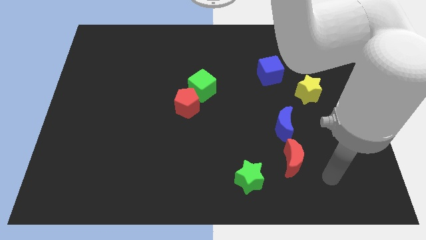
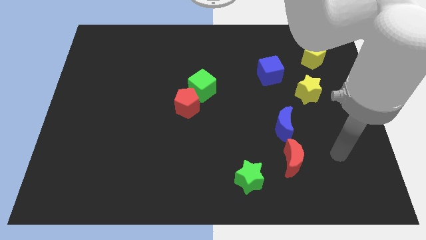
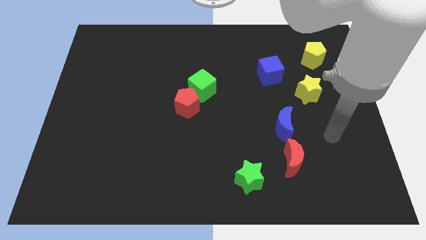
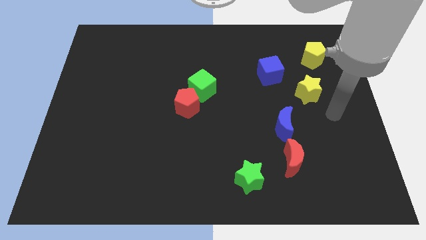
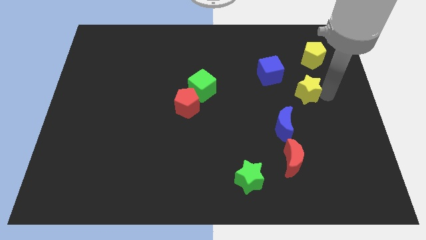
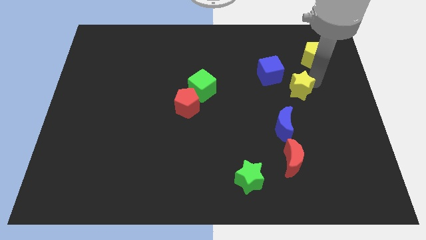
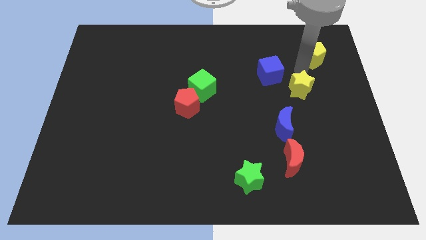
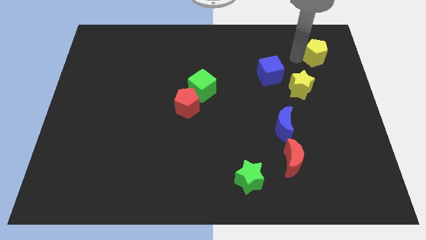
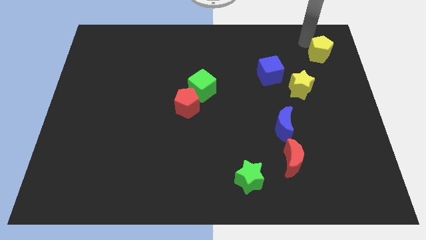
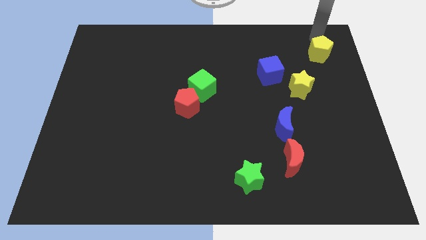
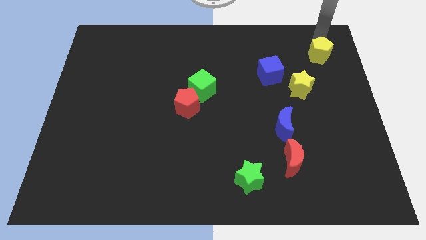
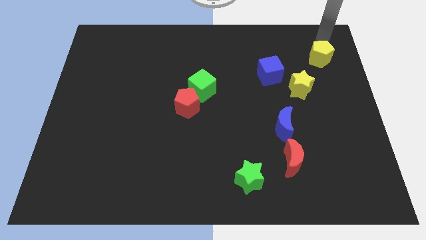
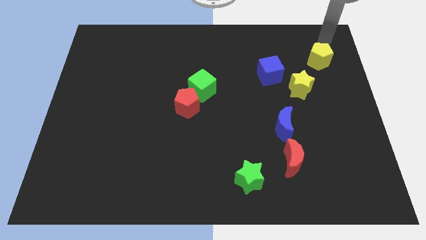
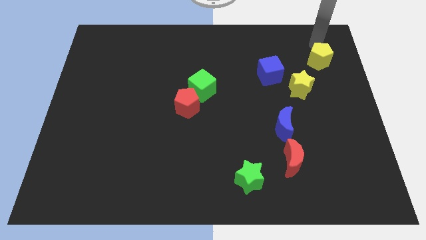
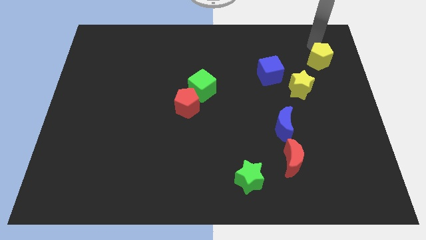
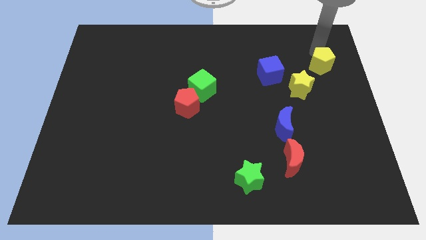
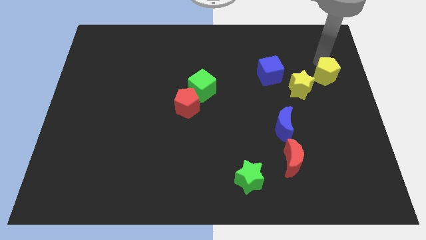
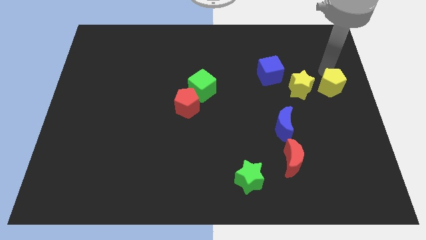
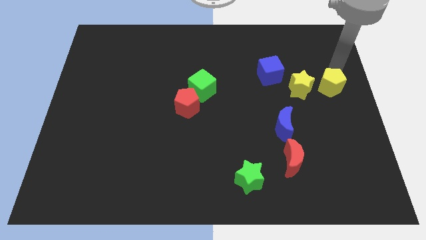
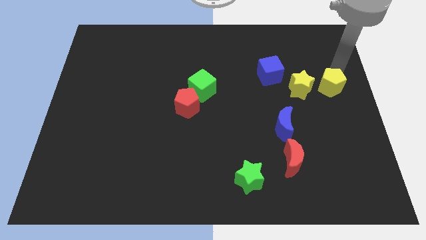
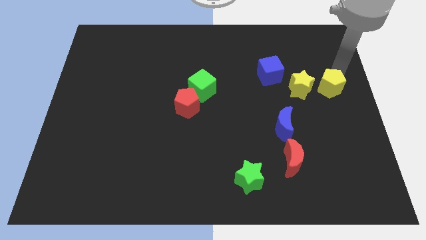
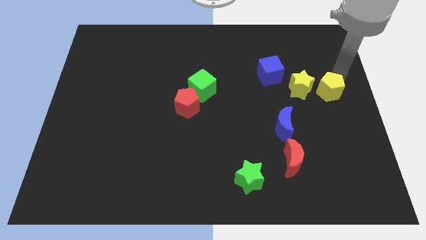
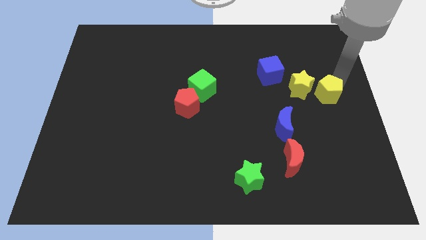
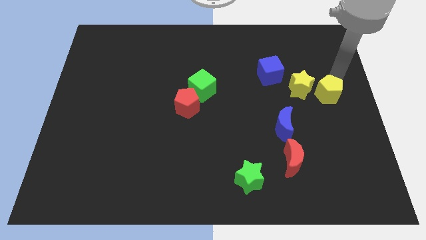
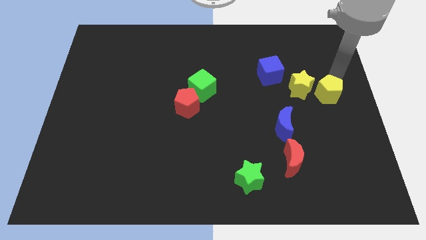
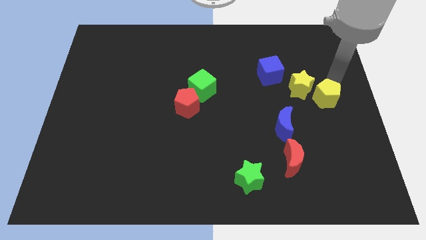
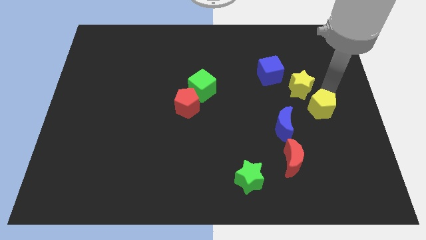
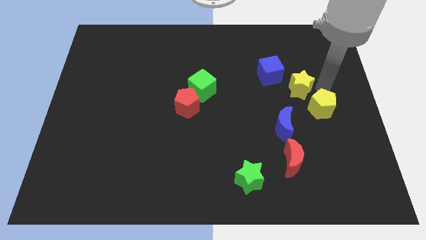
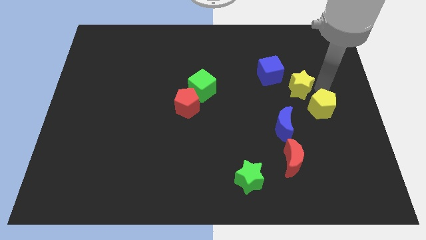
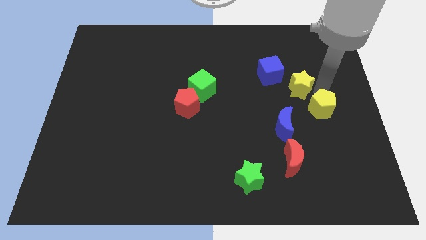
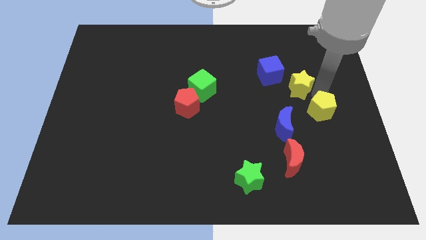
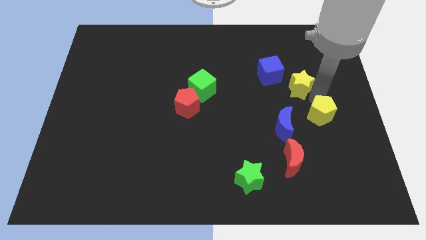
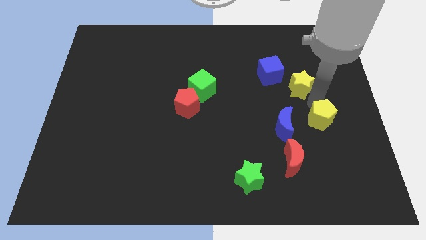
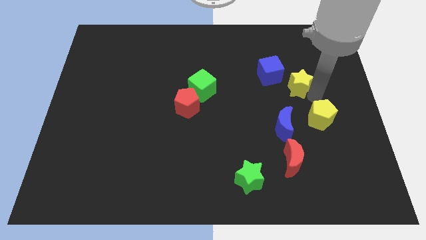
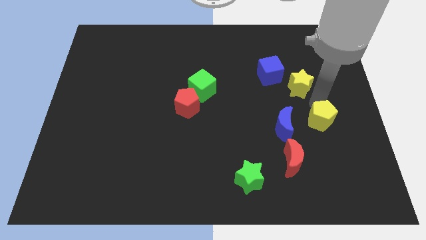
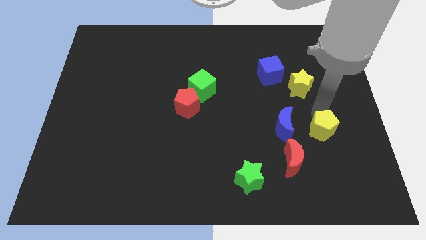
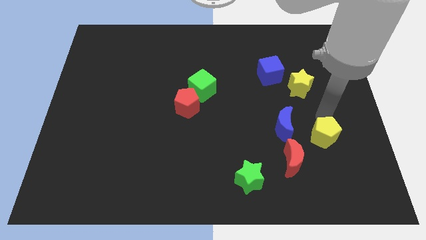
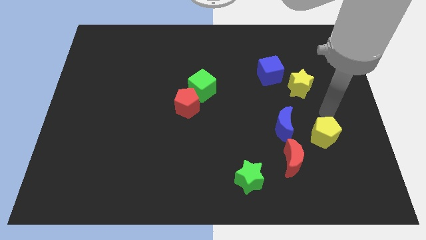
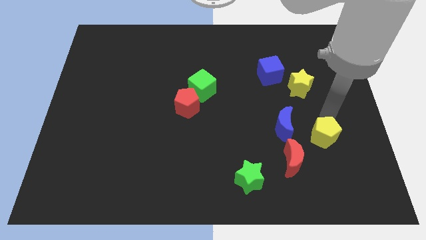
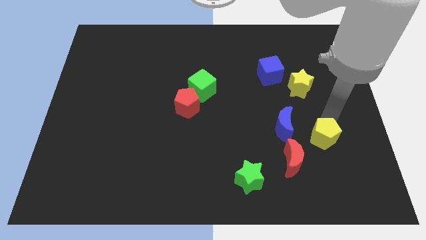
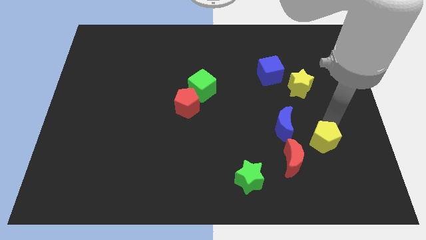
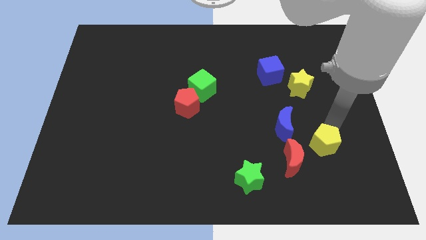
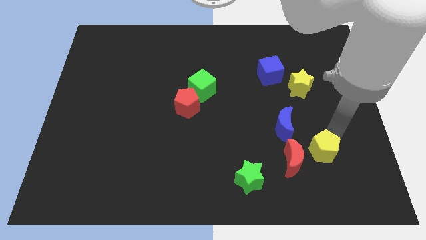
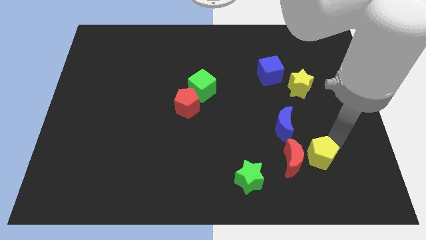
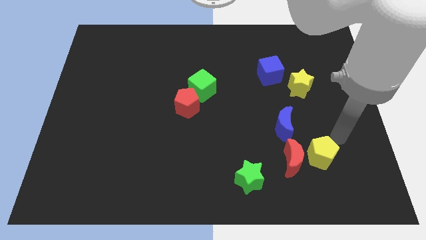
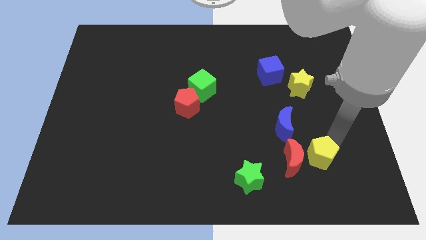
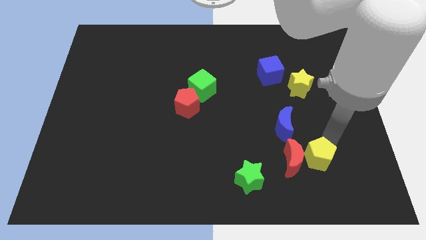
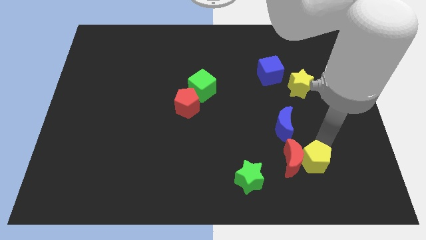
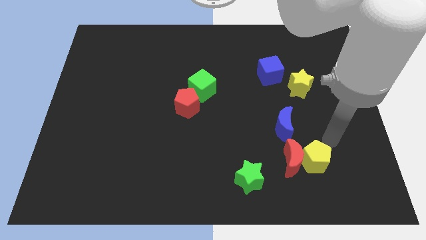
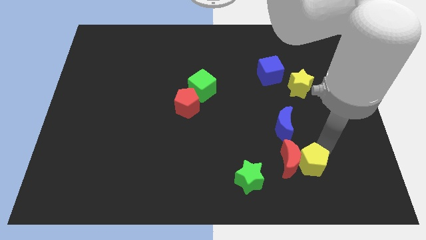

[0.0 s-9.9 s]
slide the yellow pentagon just right of the green star

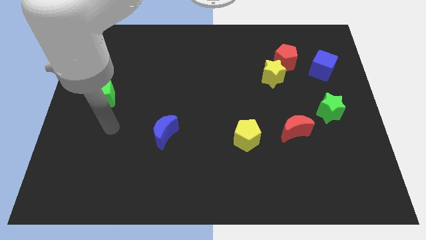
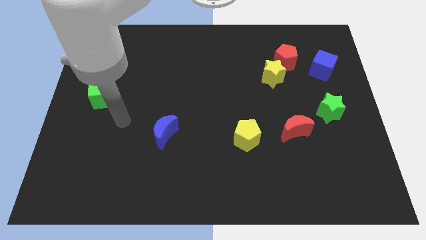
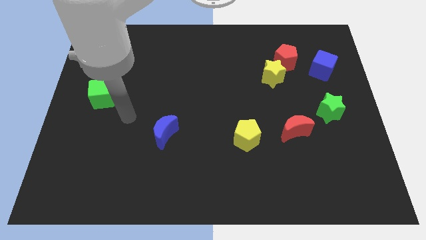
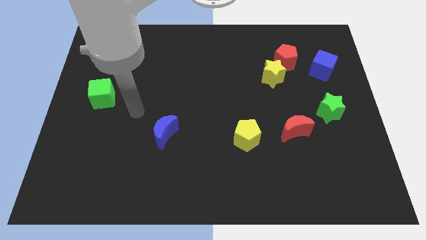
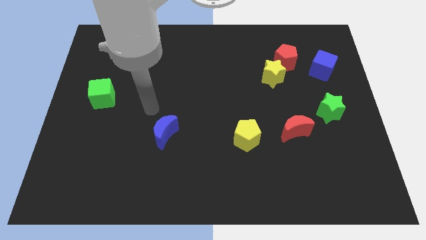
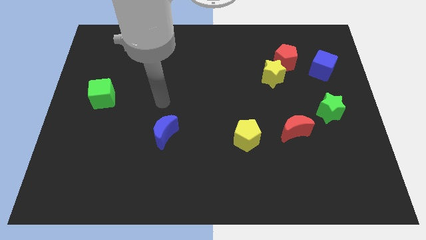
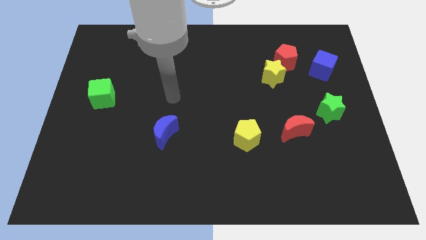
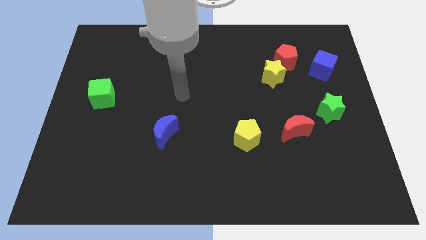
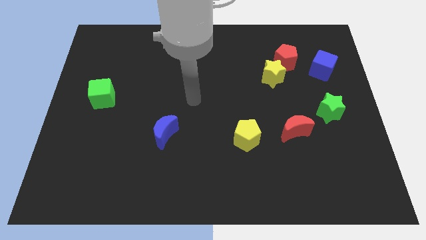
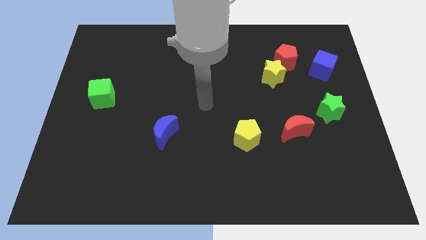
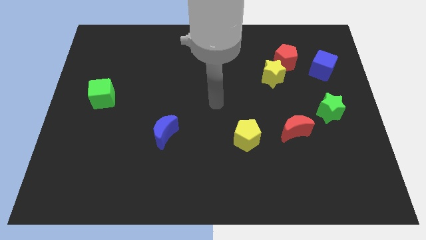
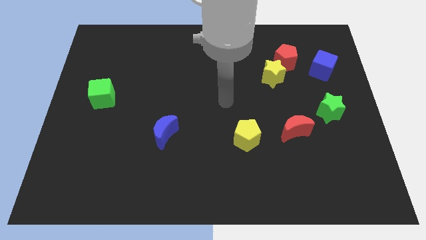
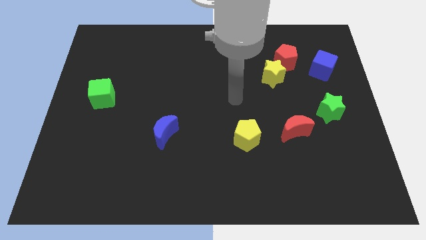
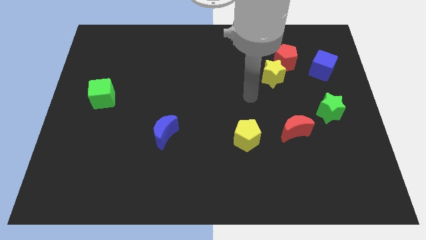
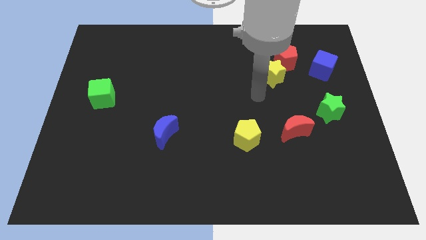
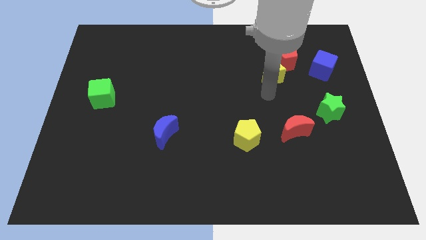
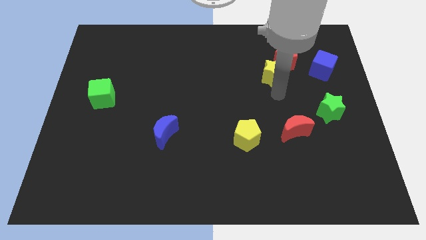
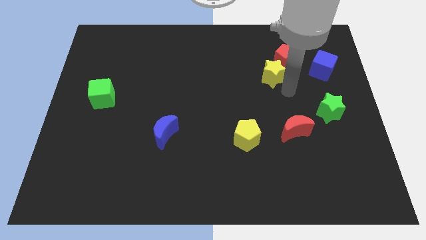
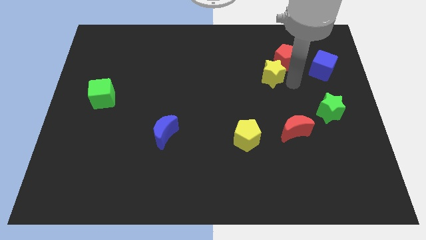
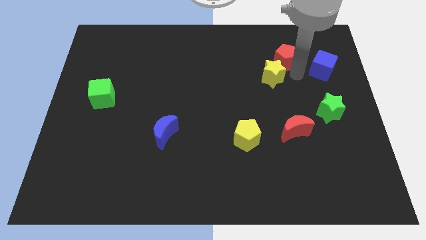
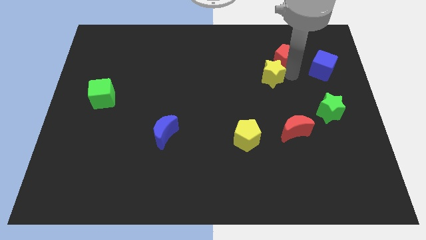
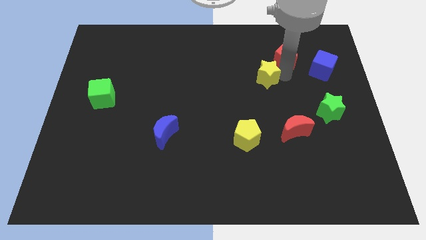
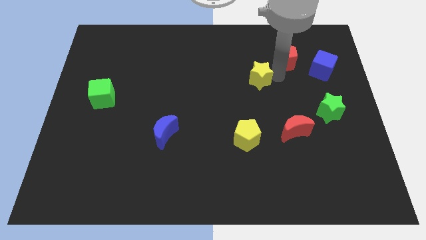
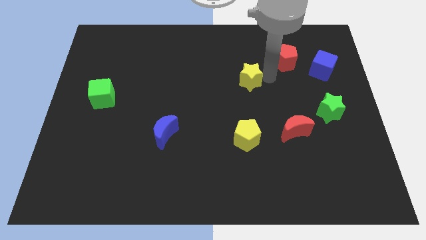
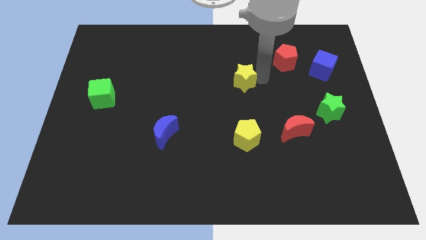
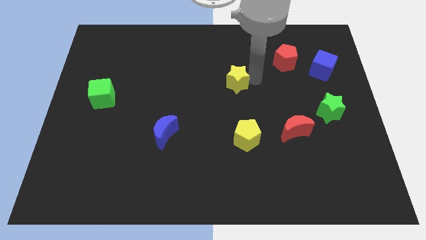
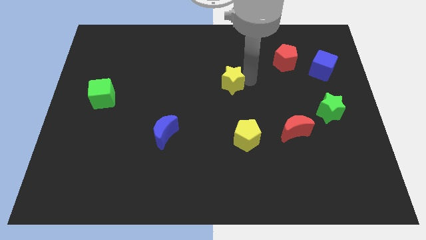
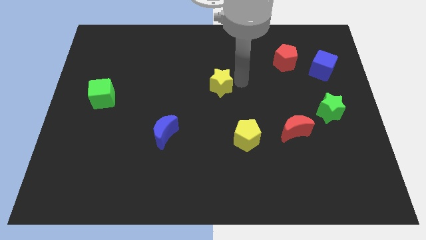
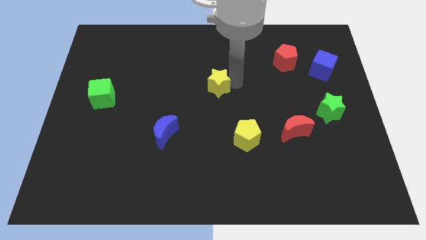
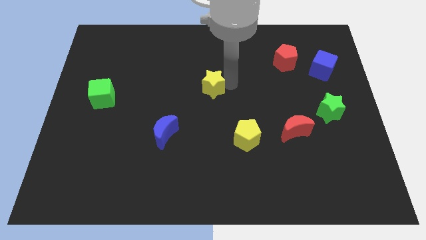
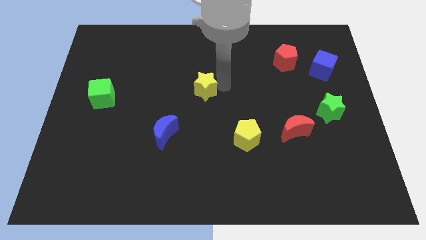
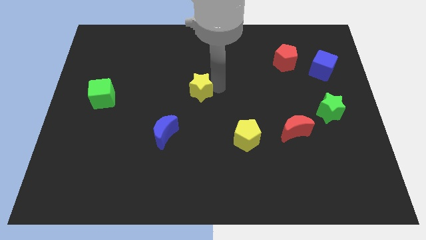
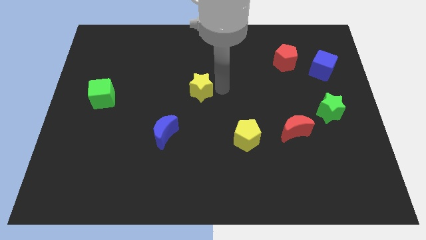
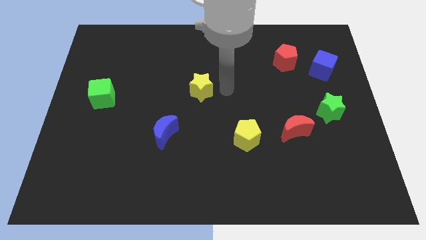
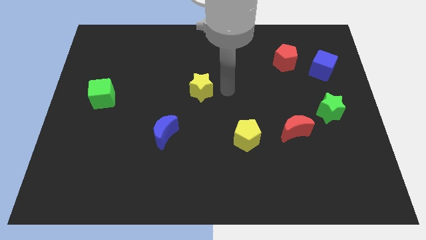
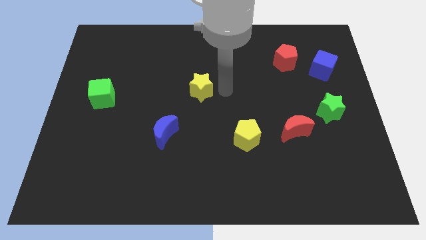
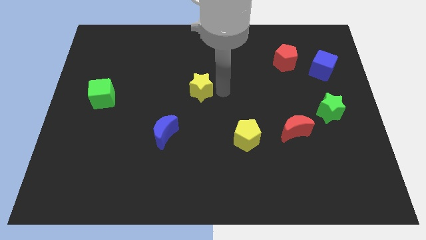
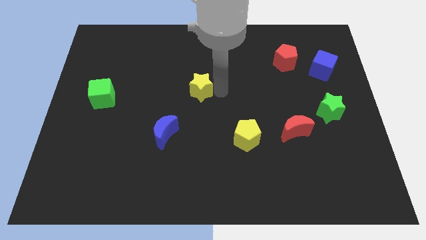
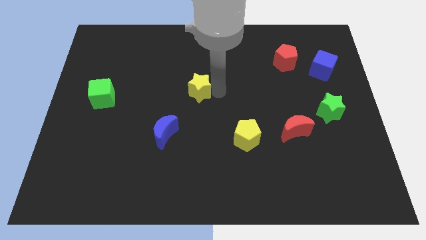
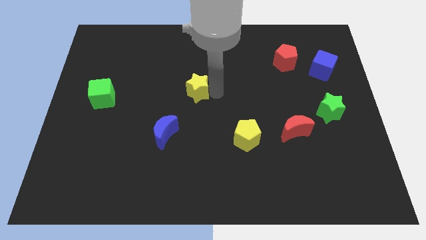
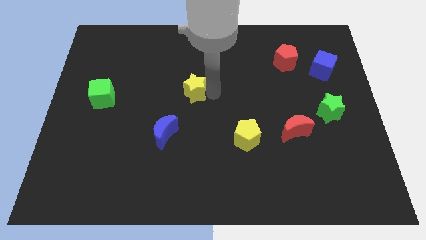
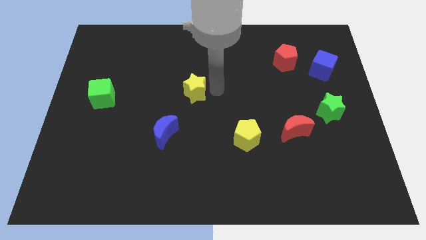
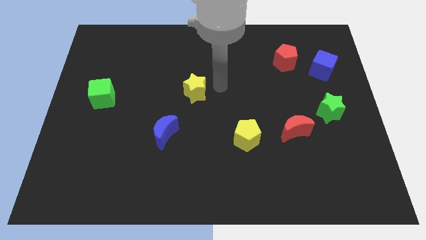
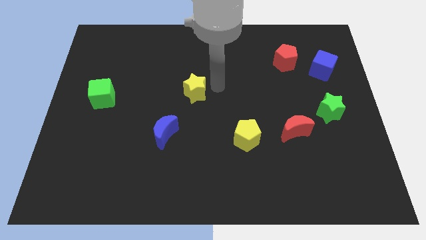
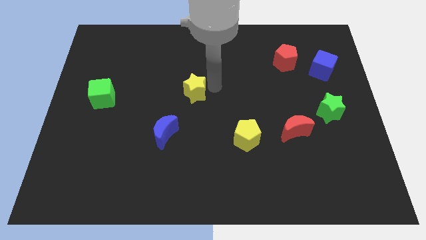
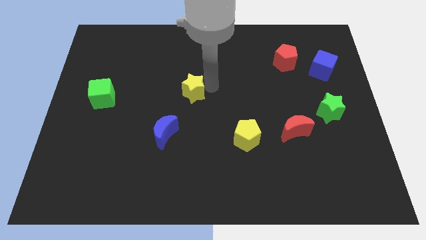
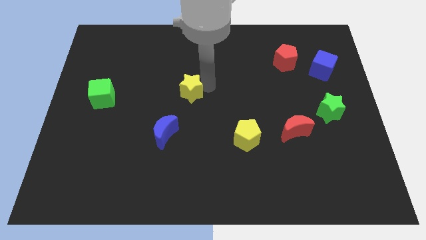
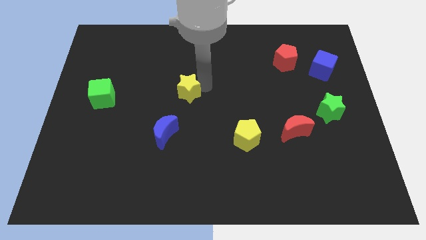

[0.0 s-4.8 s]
slide the yellow star to the top of the blue moon
